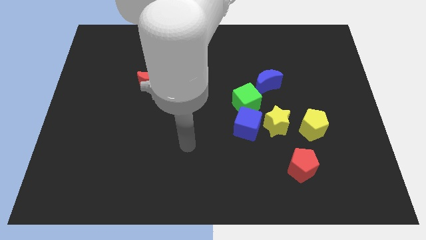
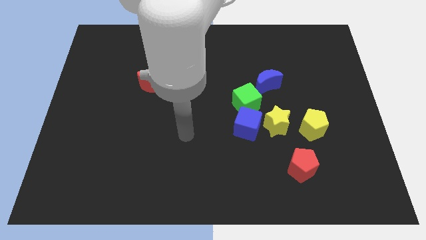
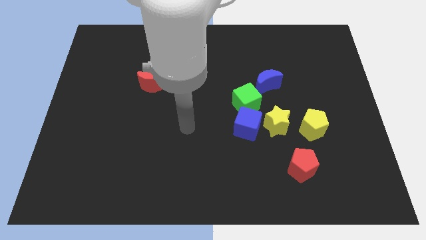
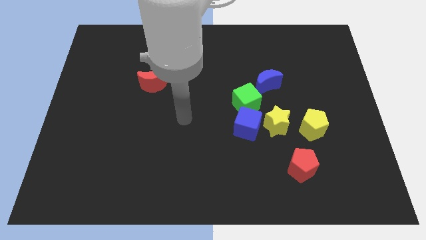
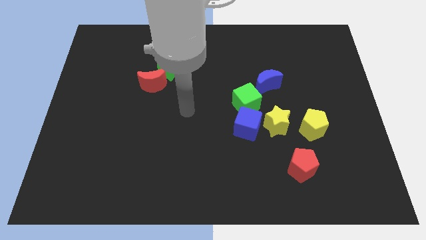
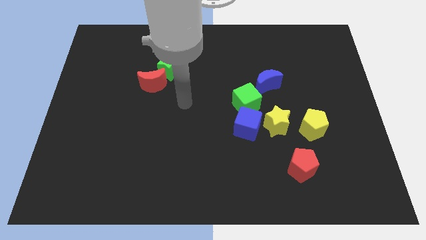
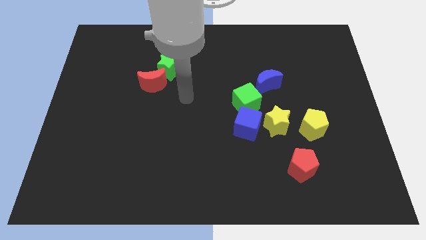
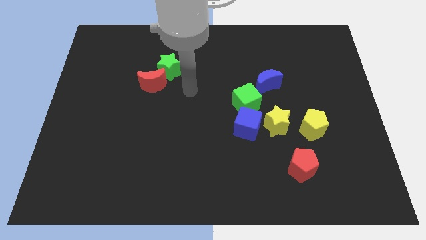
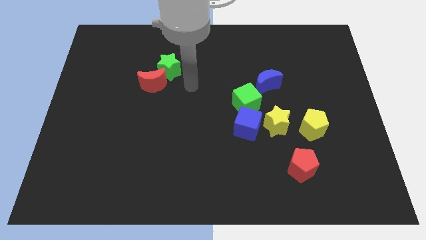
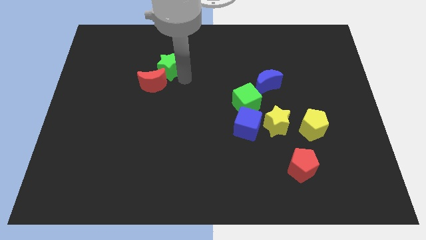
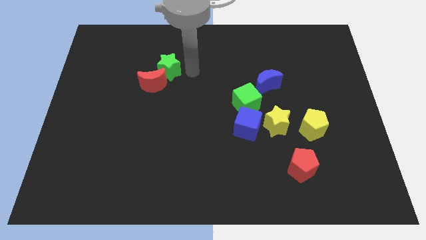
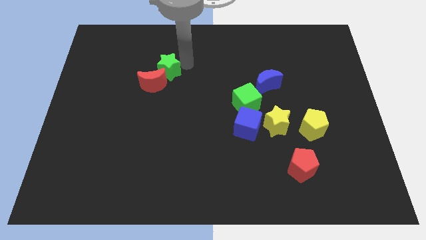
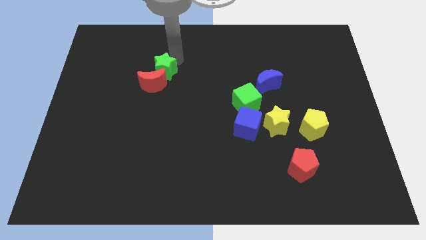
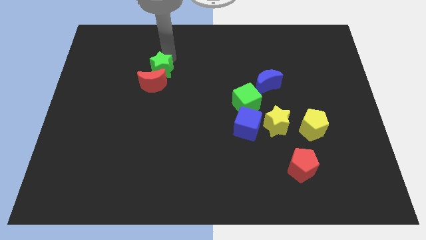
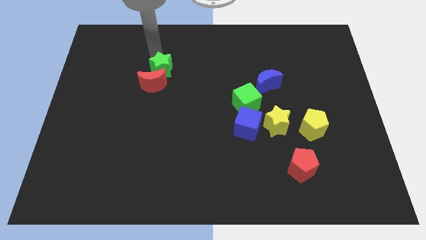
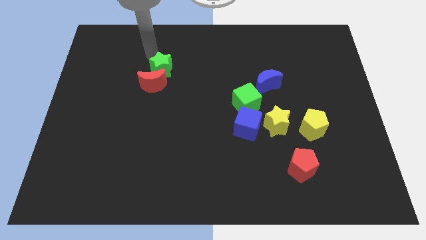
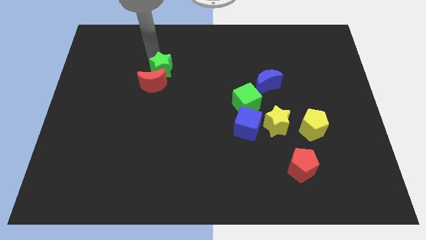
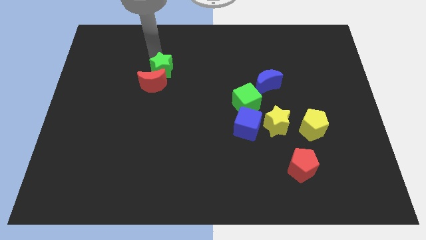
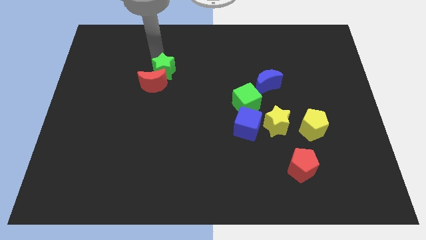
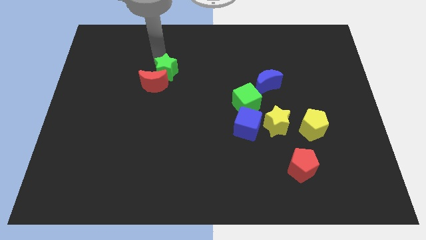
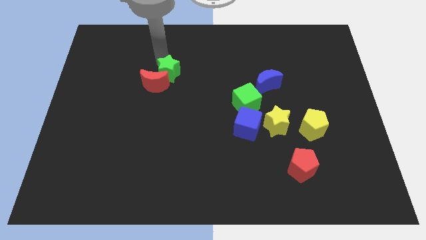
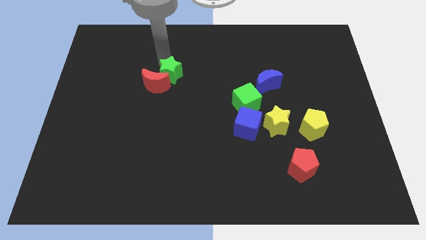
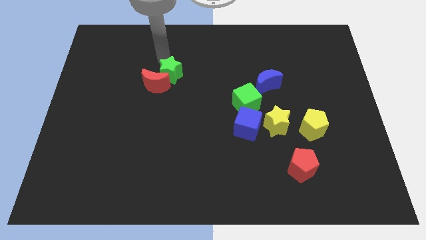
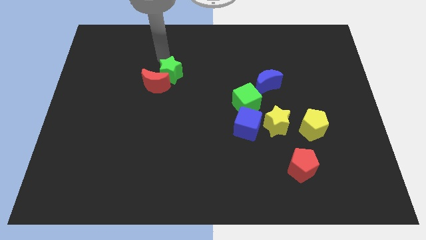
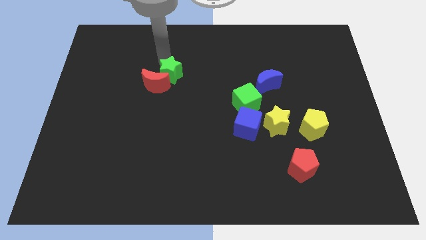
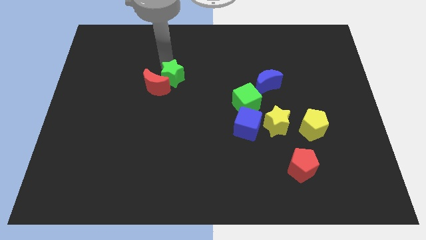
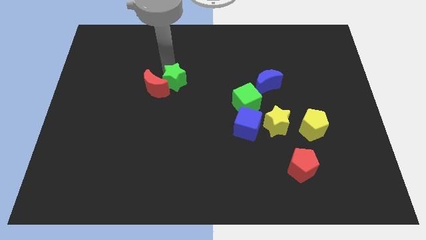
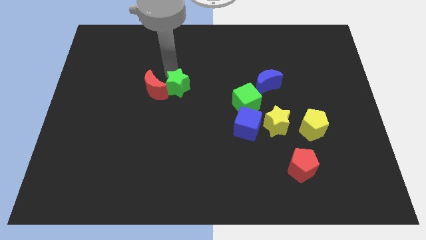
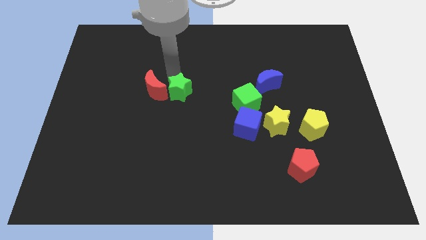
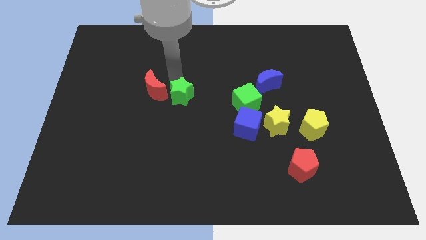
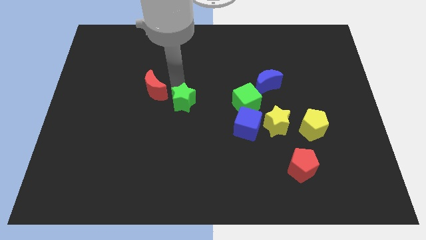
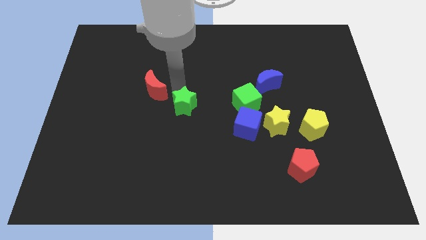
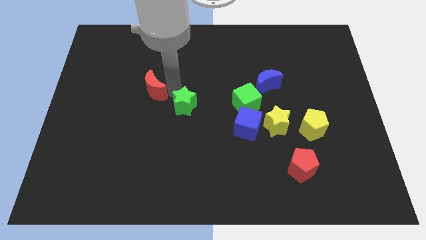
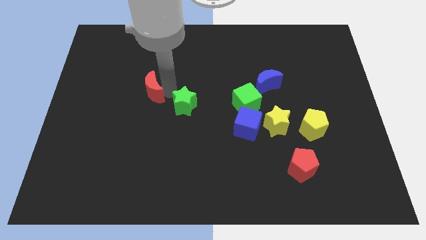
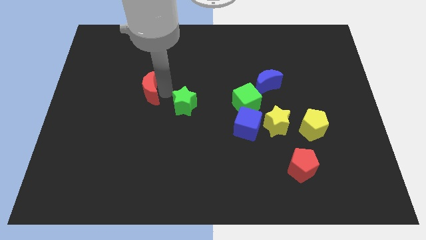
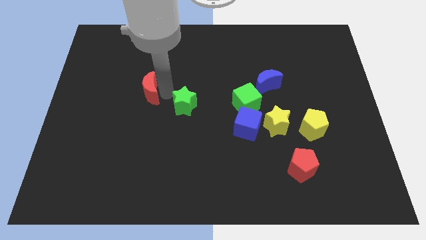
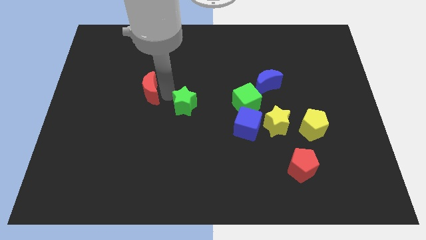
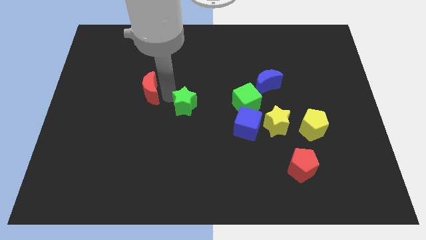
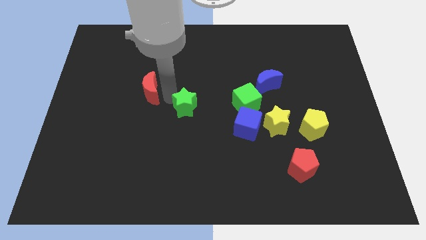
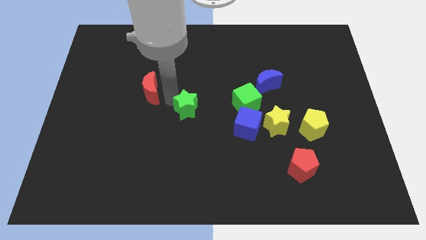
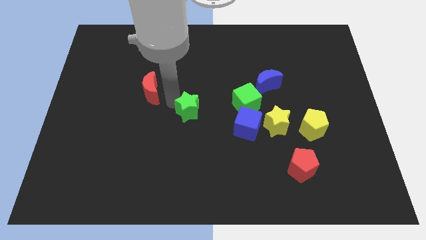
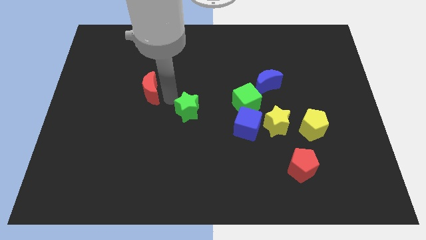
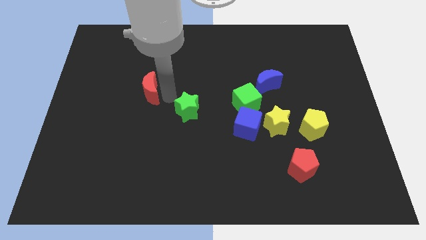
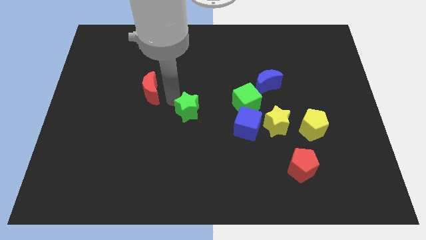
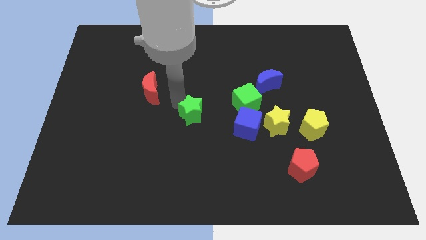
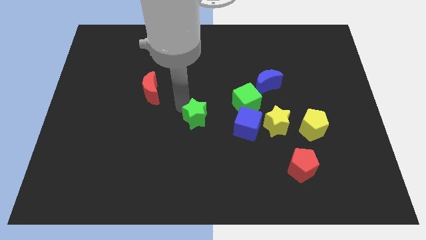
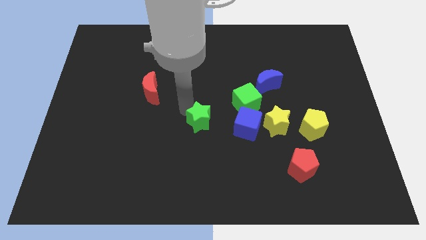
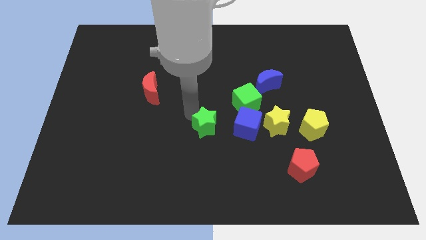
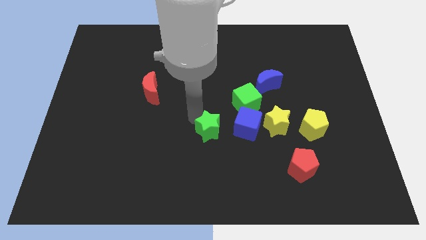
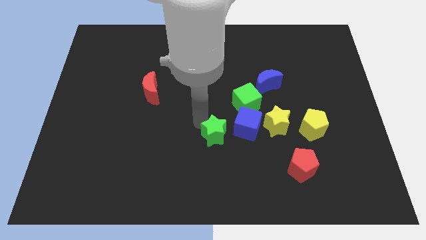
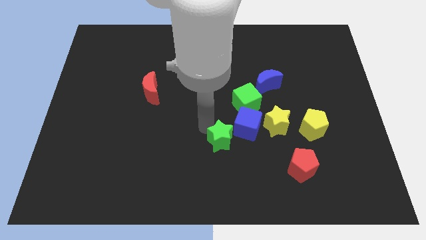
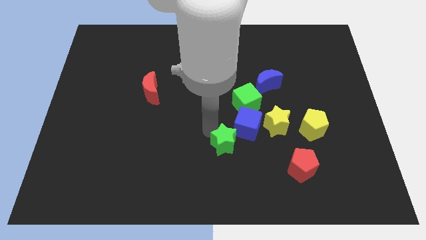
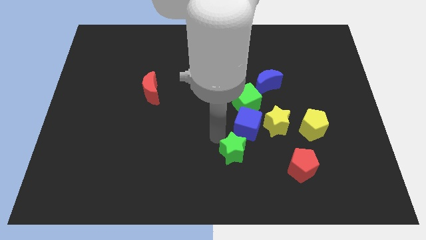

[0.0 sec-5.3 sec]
move the green star to the bottom side of the blue cube

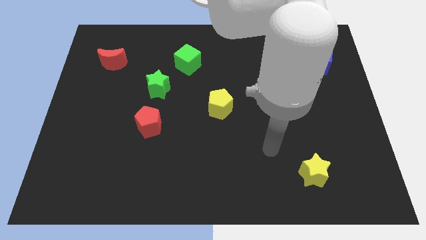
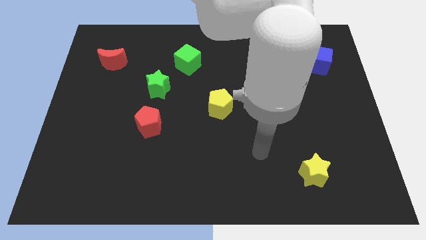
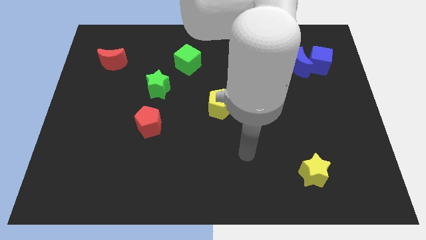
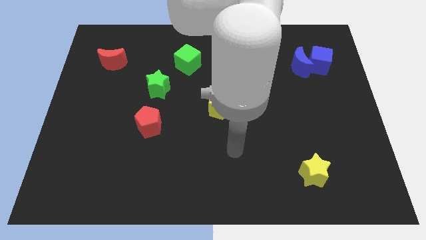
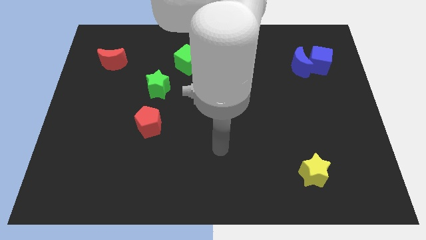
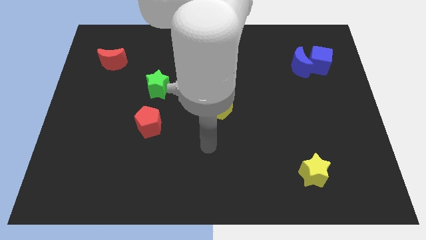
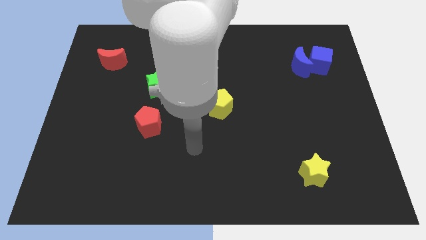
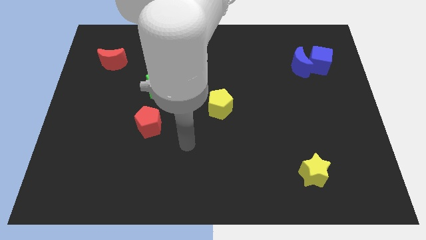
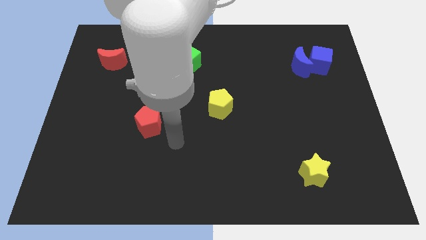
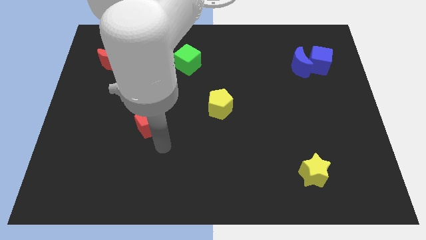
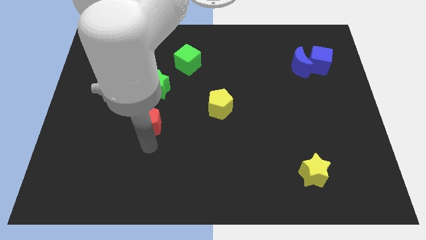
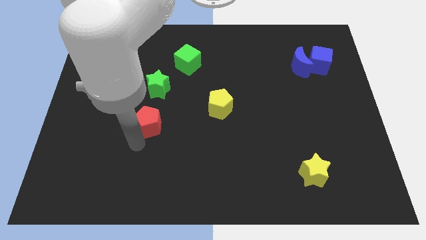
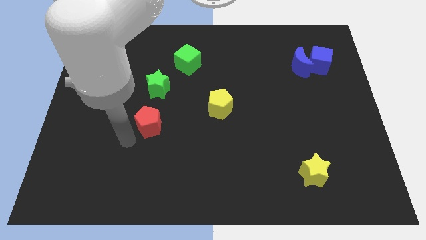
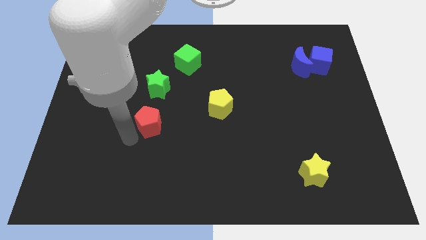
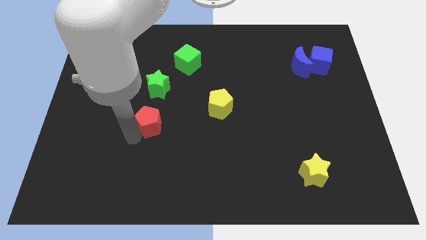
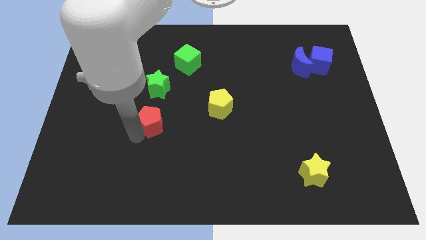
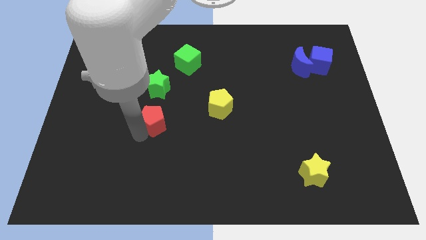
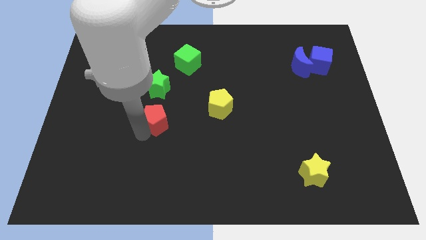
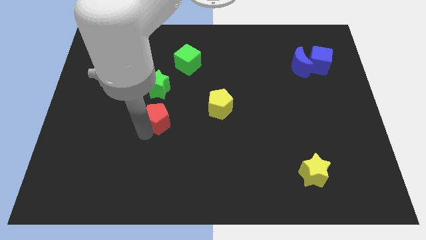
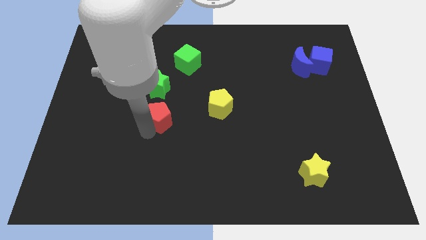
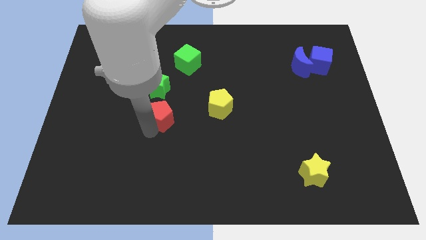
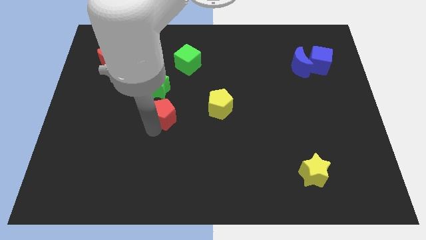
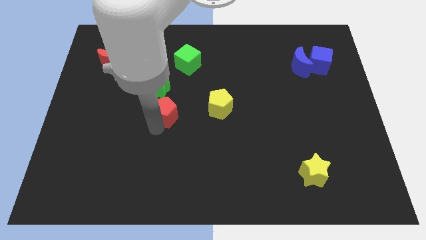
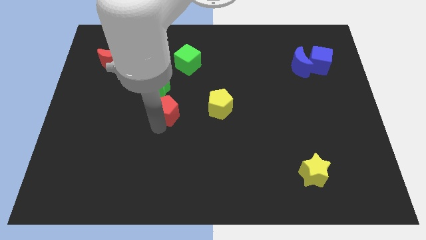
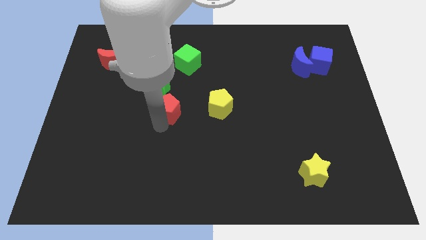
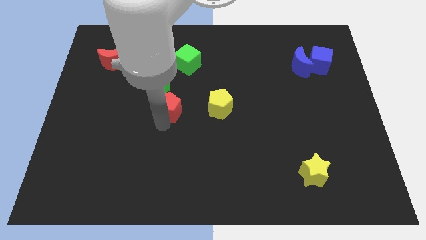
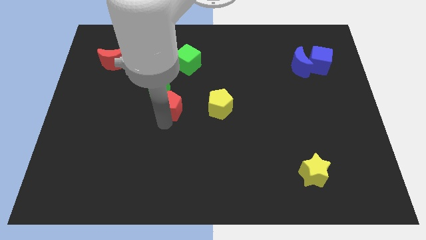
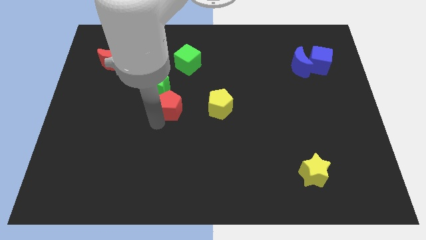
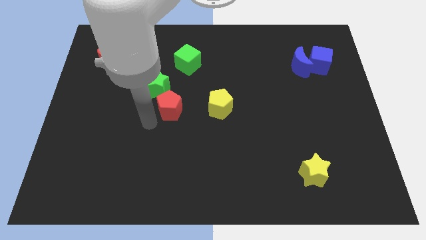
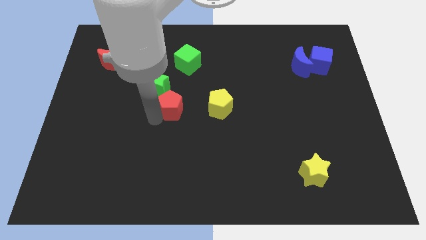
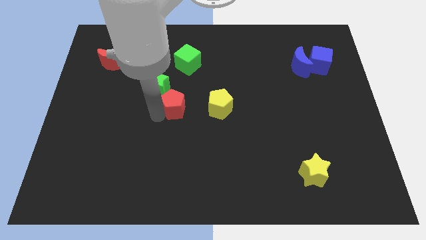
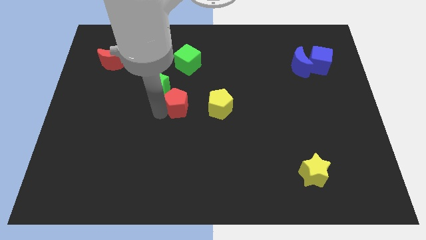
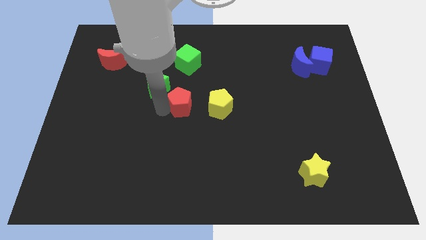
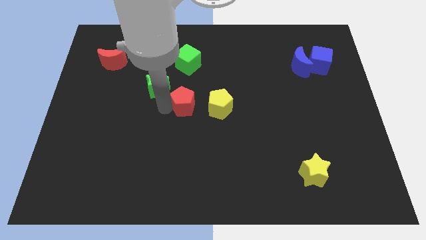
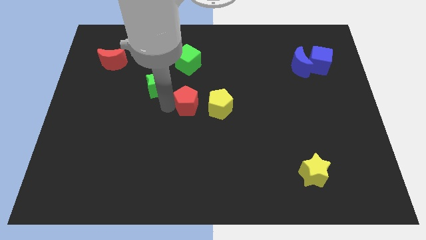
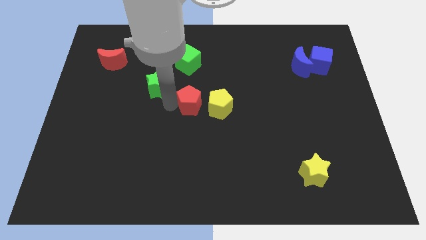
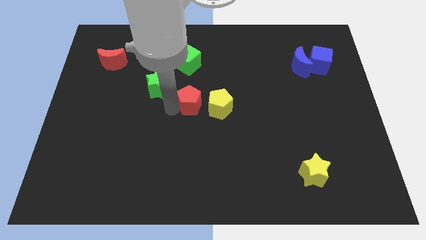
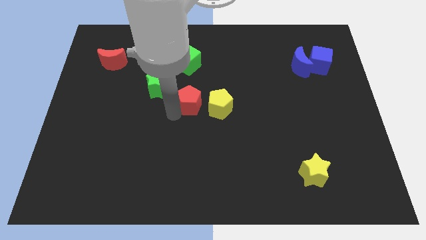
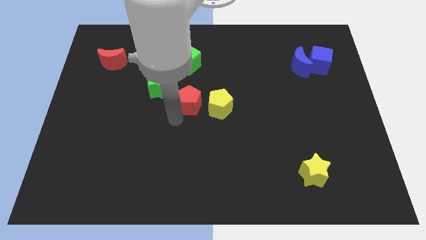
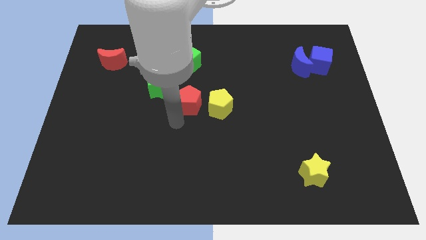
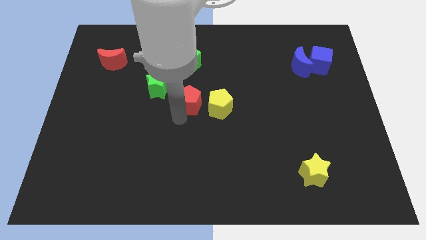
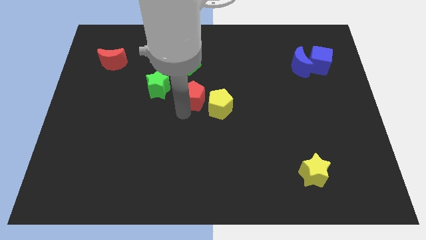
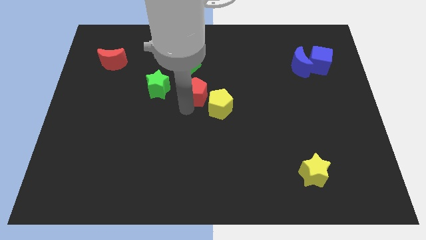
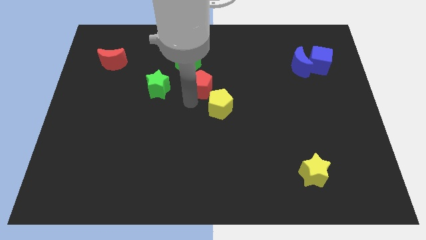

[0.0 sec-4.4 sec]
slide the red pentagon to the top of the yellow pentagon
